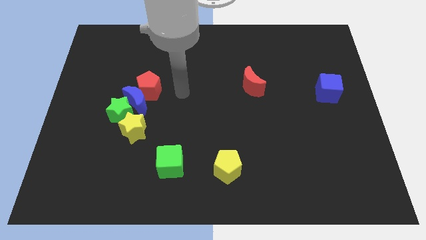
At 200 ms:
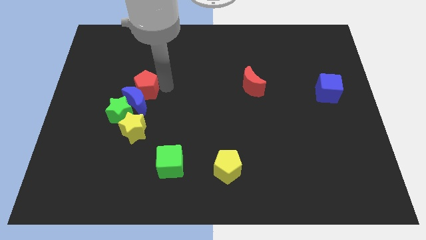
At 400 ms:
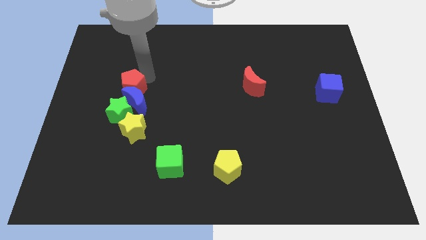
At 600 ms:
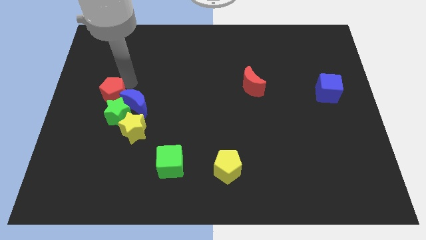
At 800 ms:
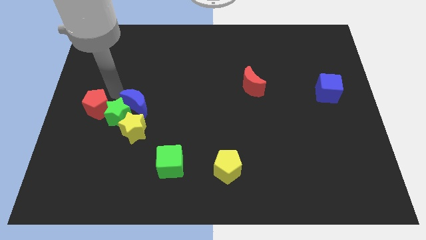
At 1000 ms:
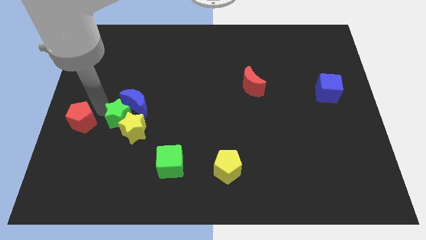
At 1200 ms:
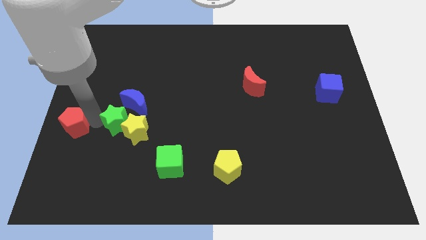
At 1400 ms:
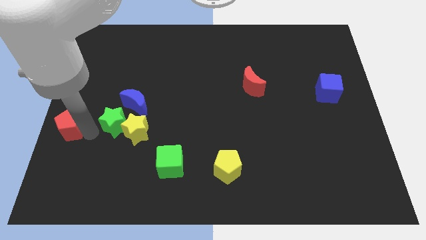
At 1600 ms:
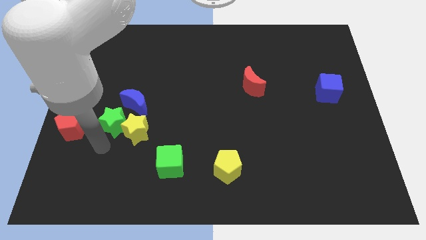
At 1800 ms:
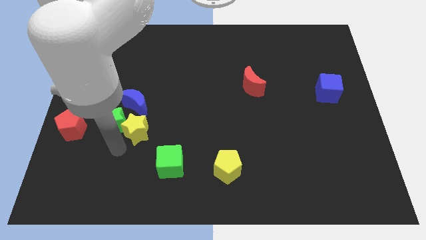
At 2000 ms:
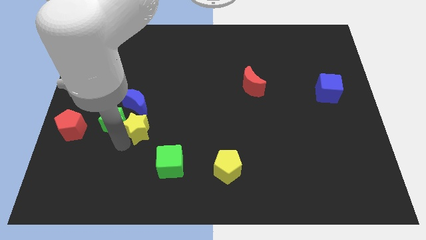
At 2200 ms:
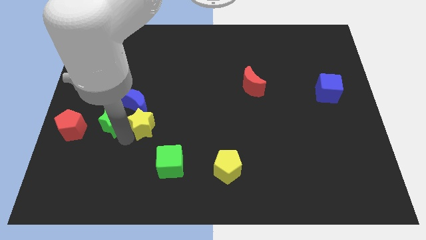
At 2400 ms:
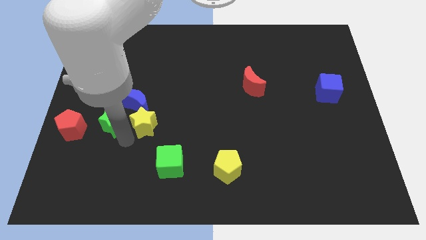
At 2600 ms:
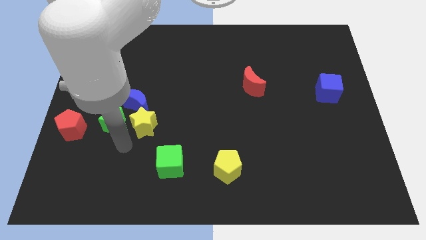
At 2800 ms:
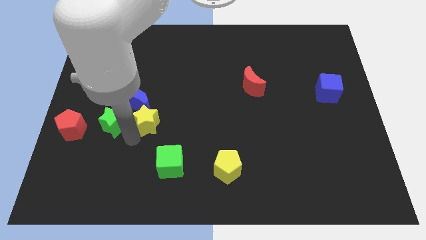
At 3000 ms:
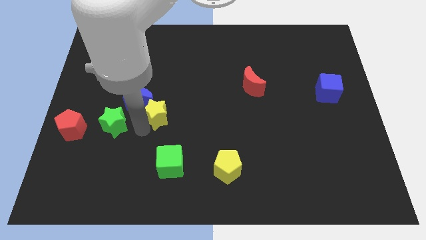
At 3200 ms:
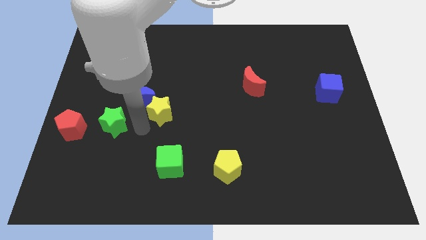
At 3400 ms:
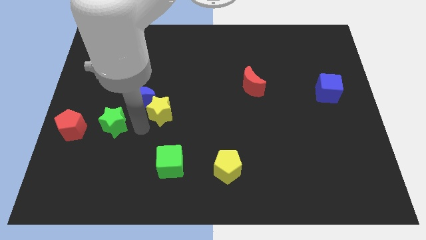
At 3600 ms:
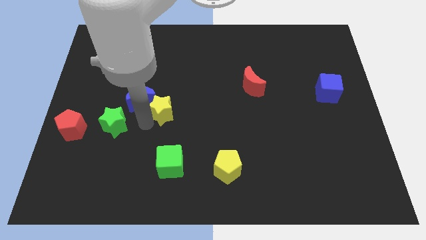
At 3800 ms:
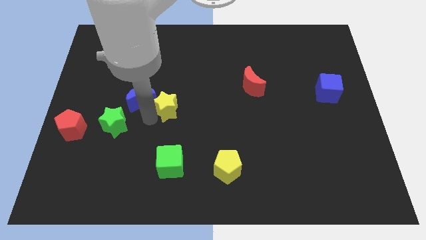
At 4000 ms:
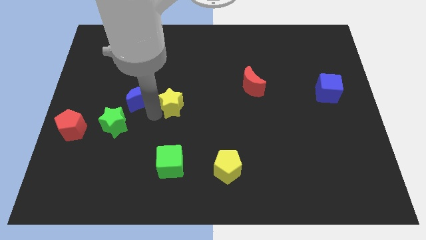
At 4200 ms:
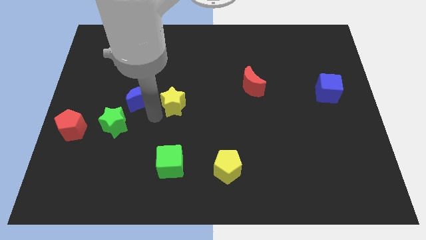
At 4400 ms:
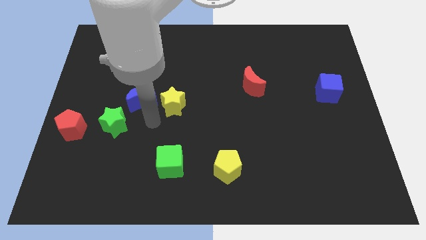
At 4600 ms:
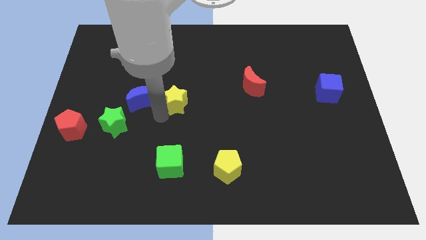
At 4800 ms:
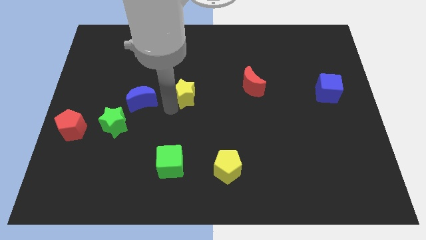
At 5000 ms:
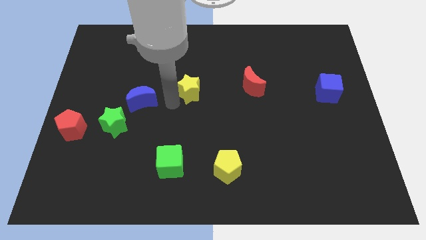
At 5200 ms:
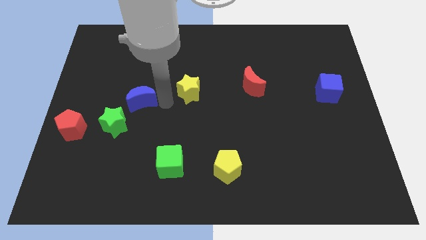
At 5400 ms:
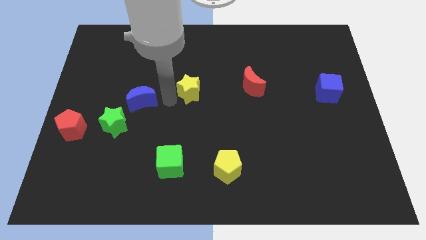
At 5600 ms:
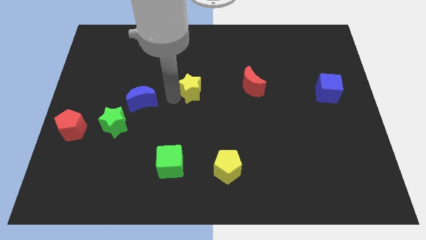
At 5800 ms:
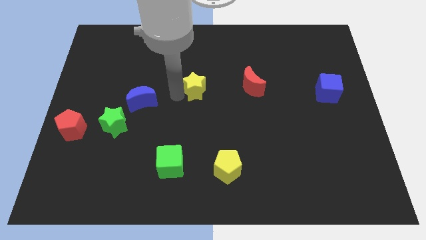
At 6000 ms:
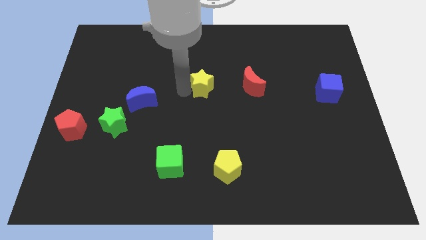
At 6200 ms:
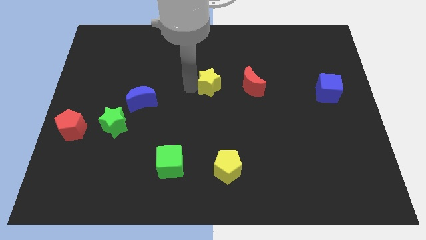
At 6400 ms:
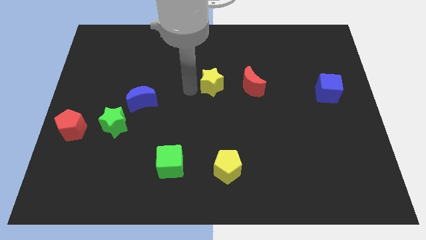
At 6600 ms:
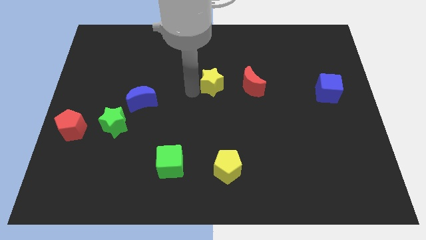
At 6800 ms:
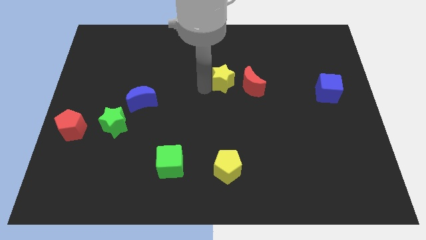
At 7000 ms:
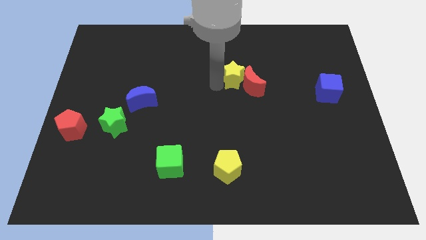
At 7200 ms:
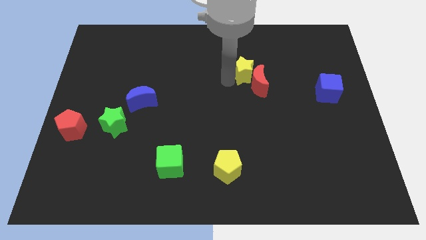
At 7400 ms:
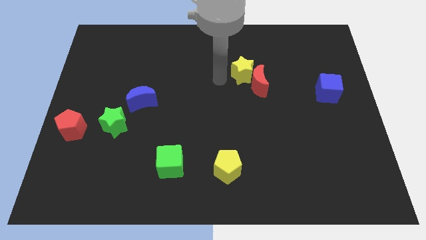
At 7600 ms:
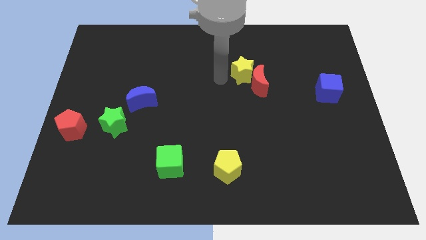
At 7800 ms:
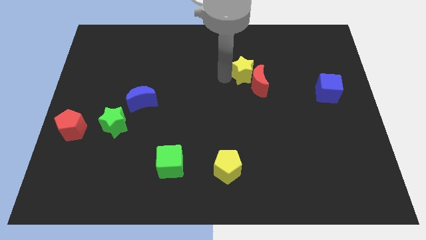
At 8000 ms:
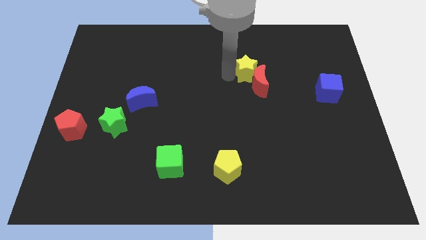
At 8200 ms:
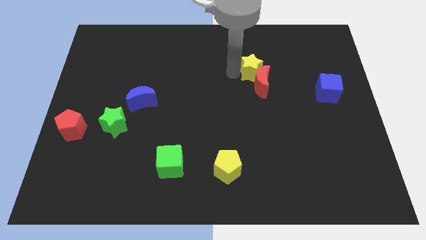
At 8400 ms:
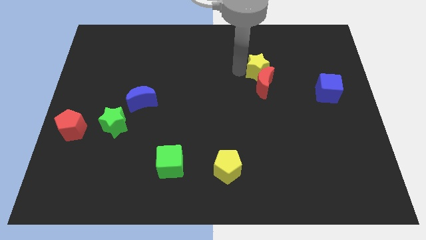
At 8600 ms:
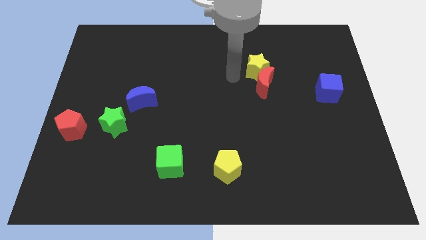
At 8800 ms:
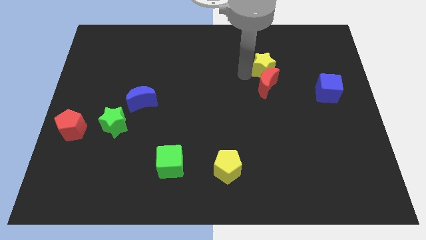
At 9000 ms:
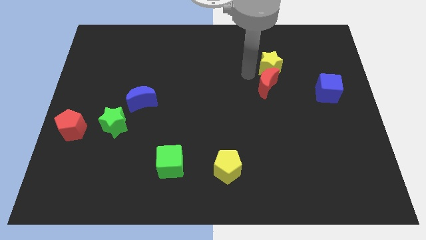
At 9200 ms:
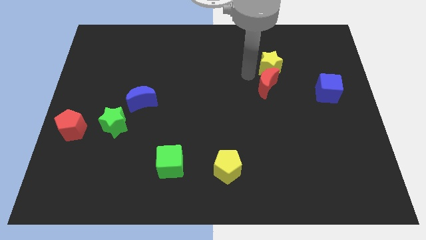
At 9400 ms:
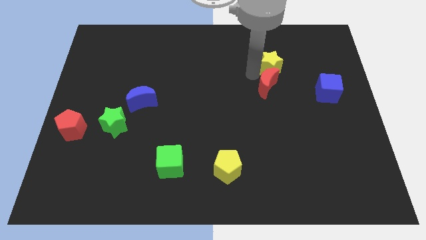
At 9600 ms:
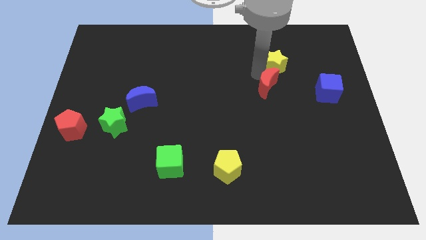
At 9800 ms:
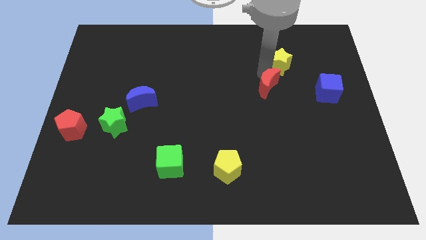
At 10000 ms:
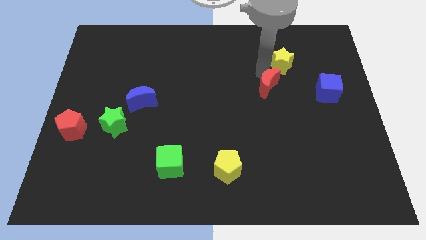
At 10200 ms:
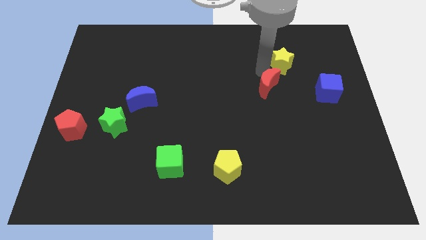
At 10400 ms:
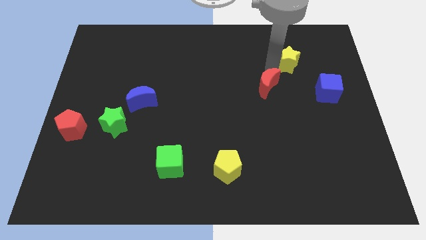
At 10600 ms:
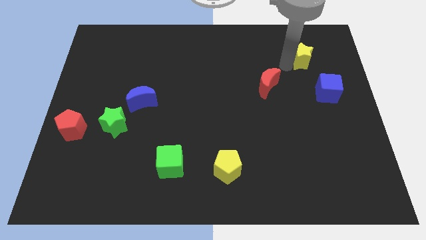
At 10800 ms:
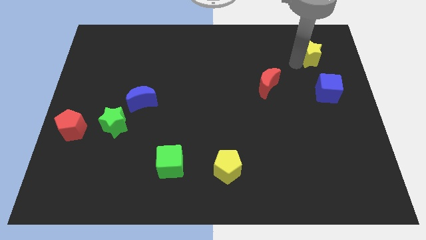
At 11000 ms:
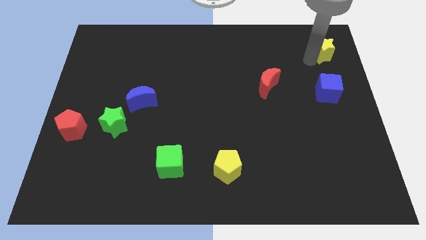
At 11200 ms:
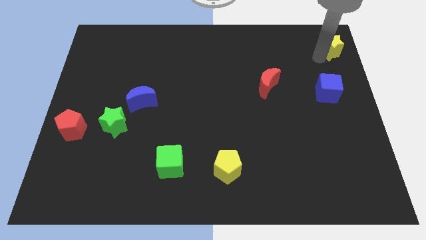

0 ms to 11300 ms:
move the yellow star to the top right corner

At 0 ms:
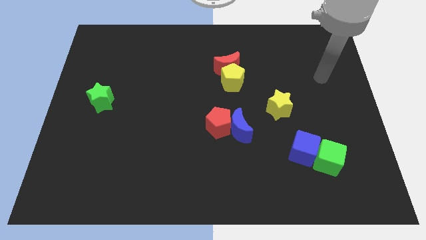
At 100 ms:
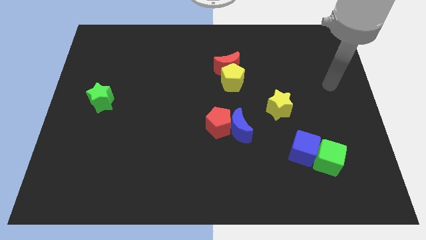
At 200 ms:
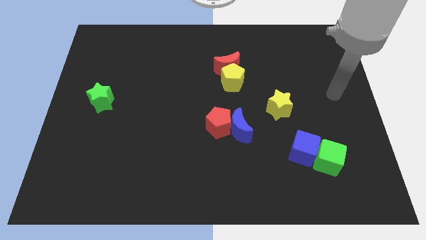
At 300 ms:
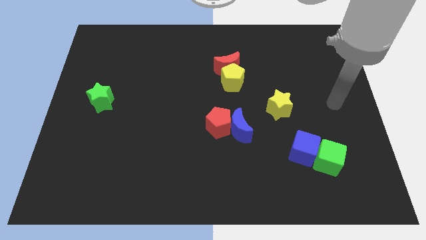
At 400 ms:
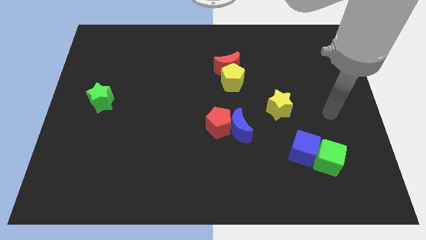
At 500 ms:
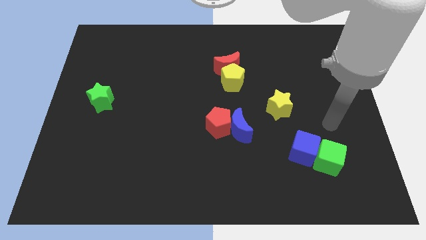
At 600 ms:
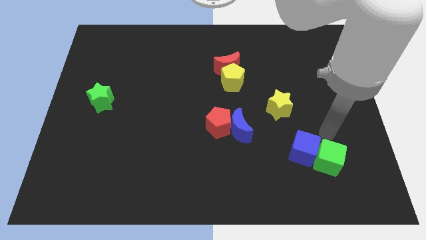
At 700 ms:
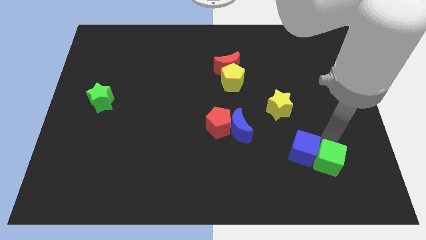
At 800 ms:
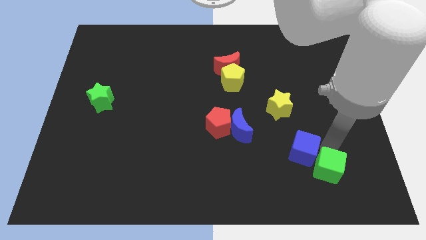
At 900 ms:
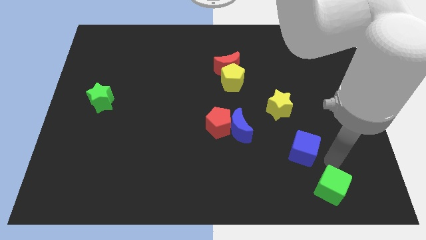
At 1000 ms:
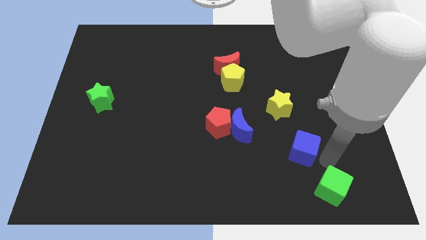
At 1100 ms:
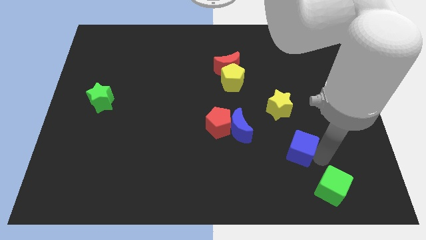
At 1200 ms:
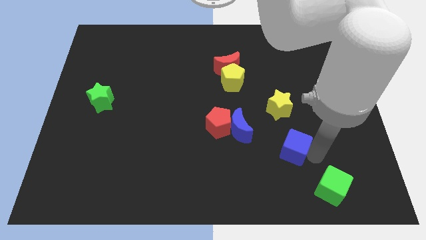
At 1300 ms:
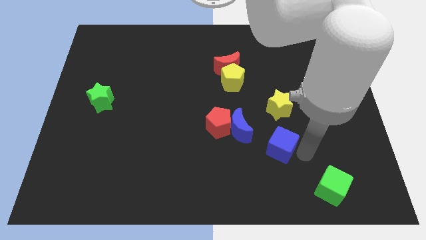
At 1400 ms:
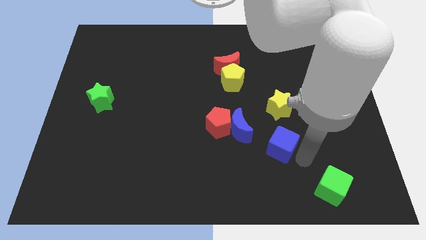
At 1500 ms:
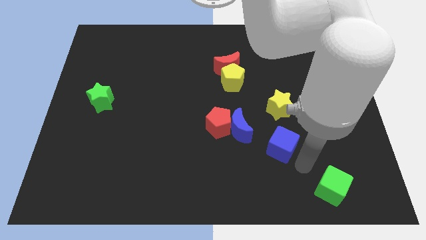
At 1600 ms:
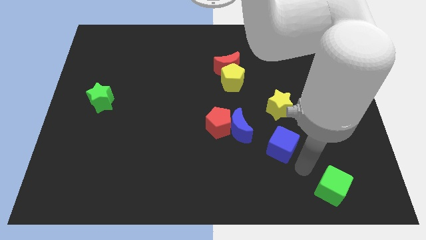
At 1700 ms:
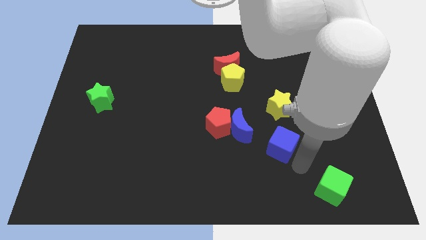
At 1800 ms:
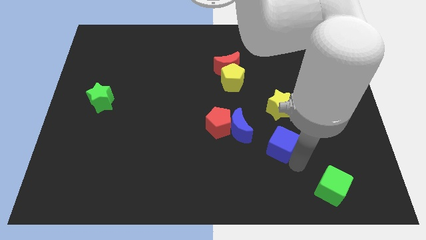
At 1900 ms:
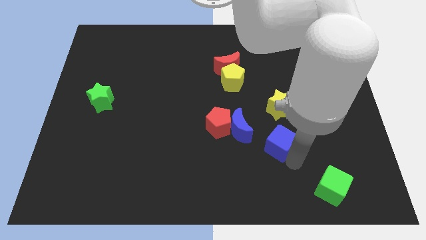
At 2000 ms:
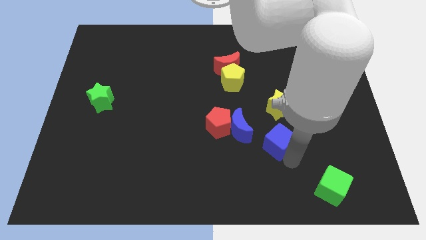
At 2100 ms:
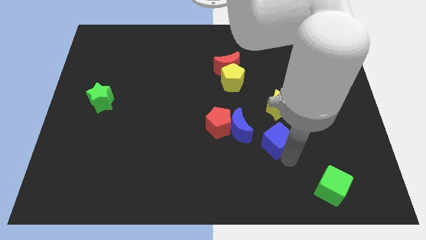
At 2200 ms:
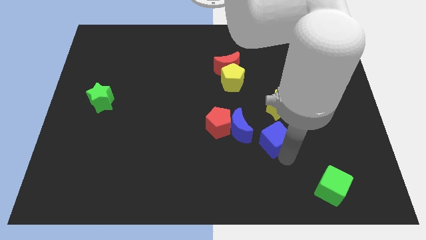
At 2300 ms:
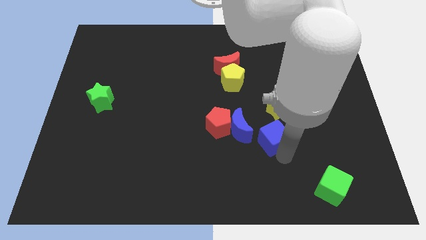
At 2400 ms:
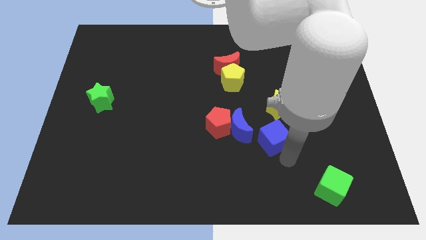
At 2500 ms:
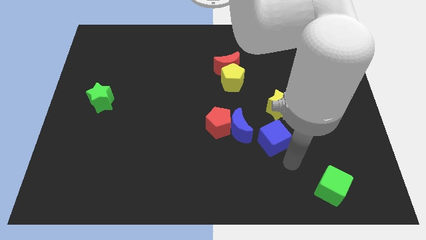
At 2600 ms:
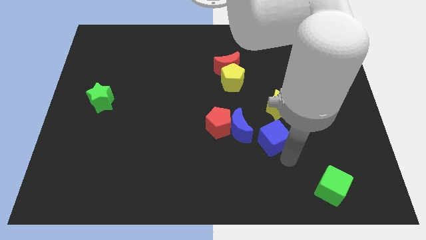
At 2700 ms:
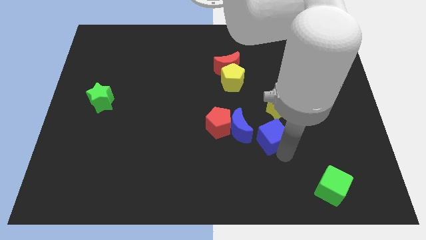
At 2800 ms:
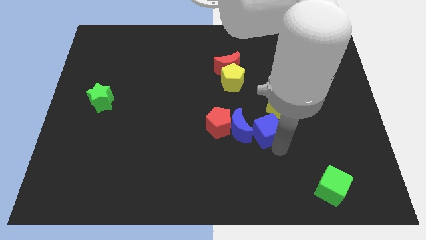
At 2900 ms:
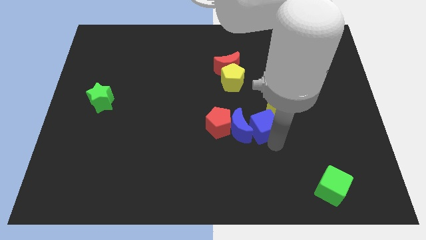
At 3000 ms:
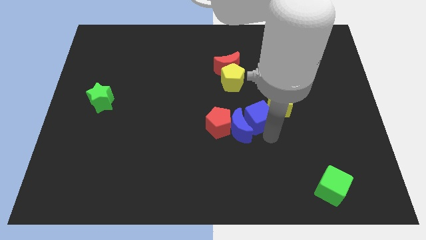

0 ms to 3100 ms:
put the blue cube to the middle
